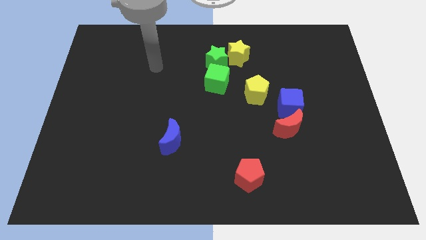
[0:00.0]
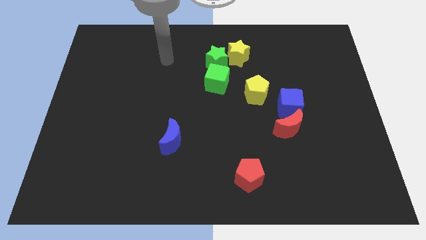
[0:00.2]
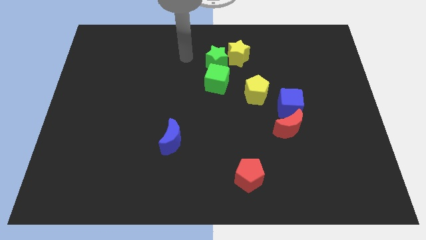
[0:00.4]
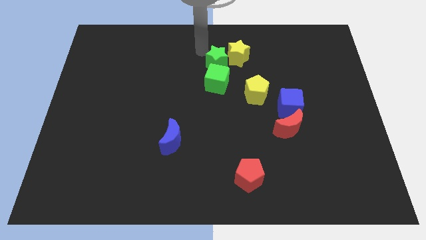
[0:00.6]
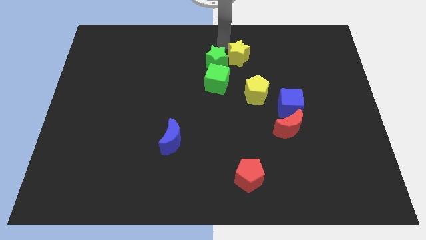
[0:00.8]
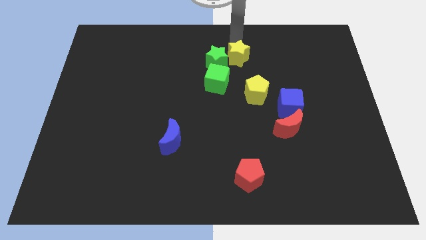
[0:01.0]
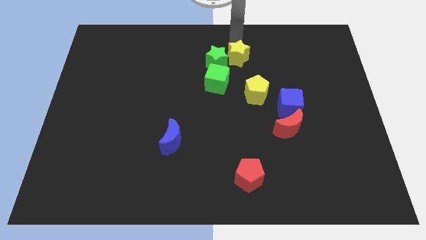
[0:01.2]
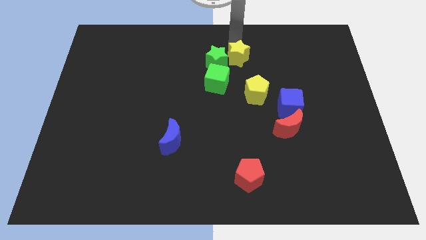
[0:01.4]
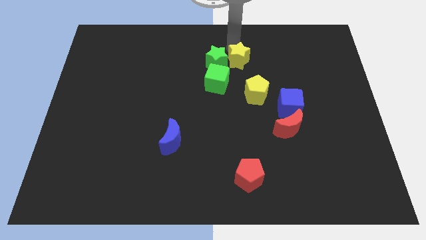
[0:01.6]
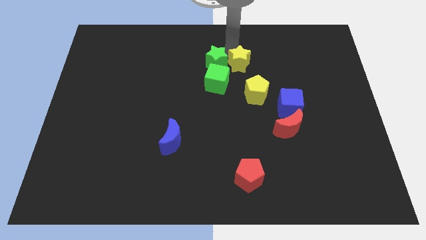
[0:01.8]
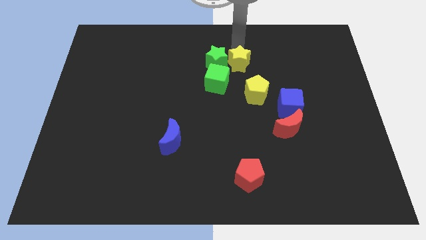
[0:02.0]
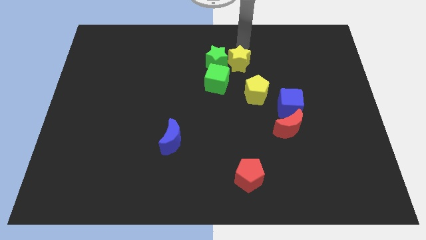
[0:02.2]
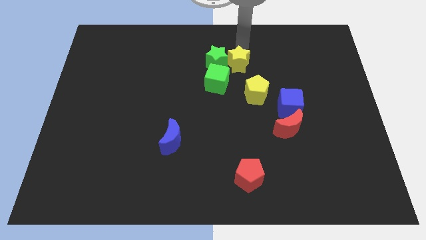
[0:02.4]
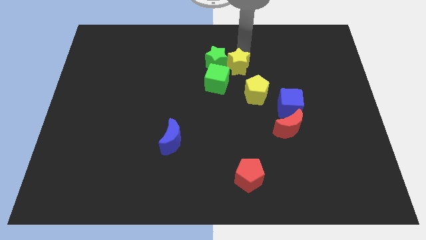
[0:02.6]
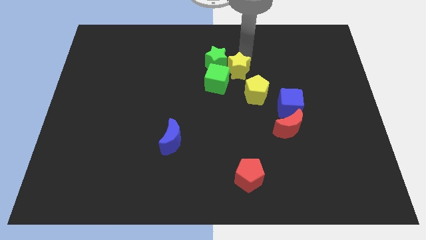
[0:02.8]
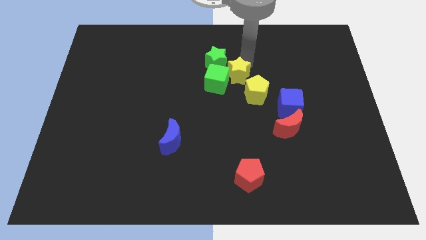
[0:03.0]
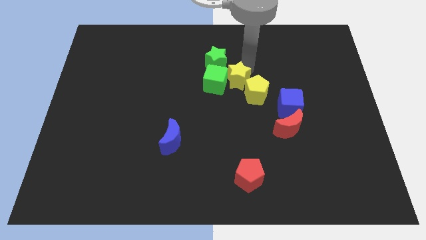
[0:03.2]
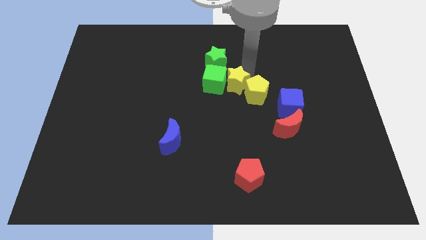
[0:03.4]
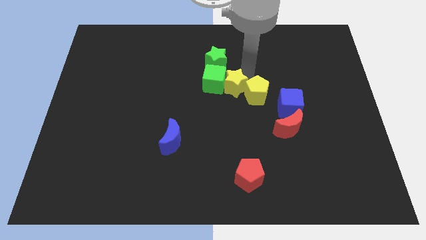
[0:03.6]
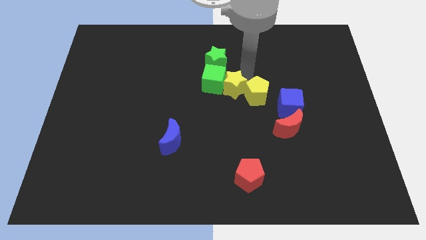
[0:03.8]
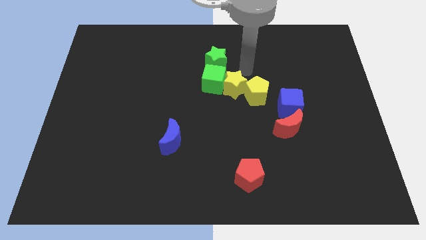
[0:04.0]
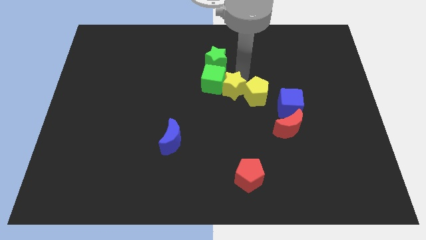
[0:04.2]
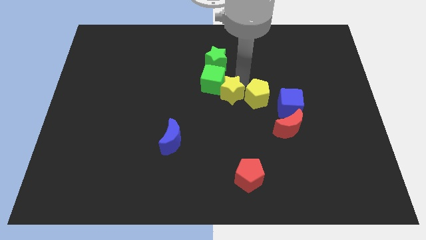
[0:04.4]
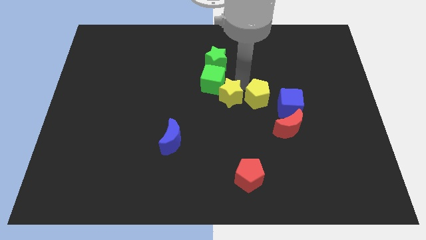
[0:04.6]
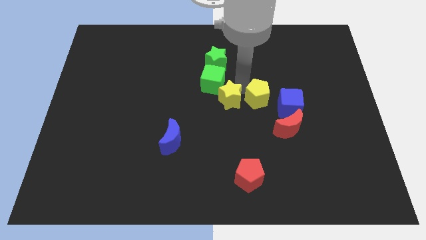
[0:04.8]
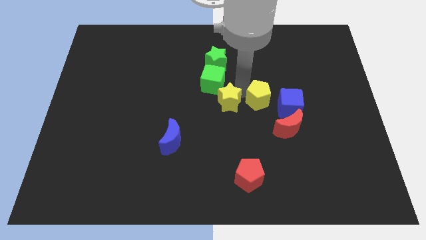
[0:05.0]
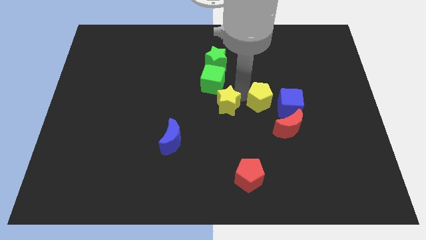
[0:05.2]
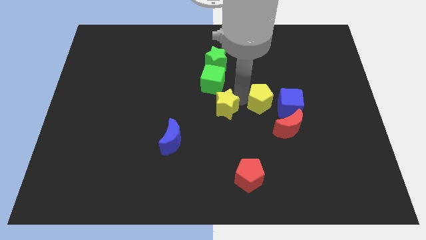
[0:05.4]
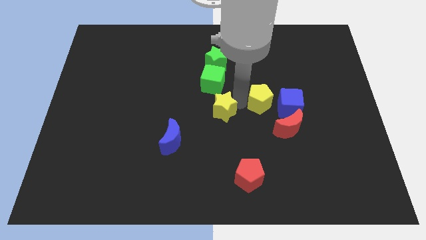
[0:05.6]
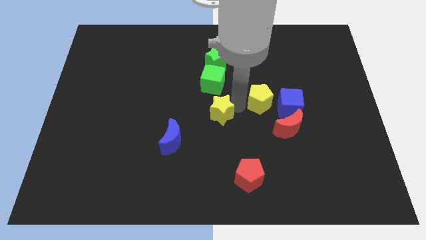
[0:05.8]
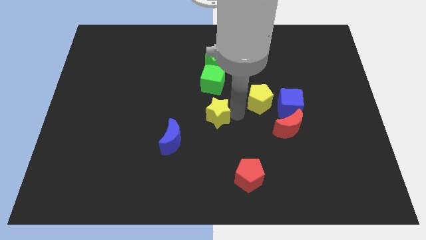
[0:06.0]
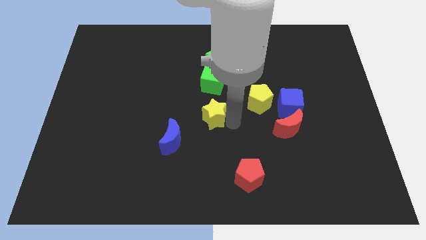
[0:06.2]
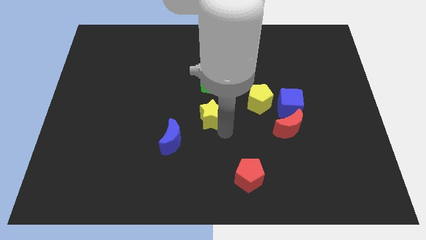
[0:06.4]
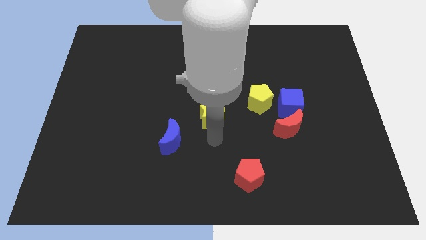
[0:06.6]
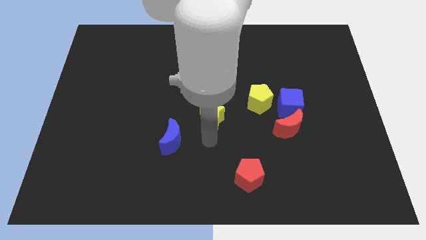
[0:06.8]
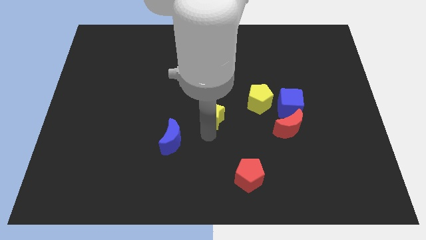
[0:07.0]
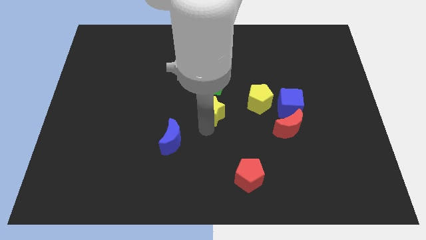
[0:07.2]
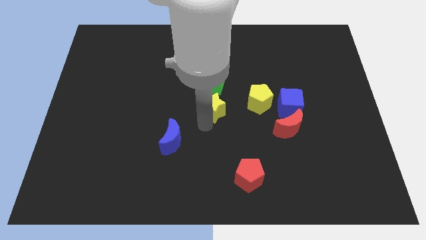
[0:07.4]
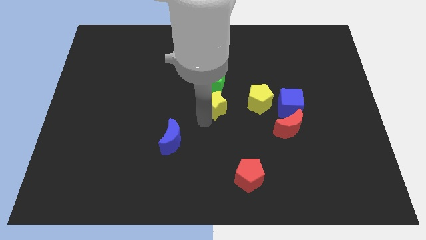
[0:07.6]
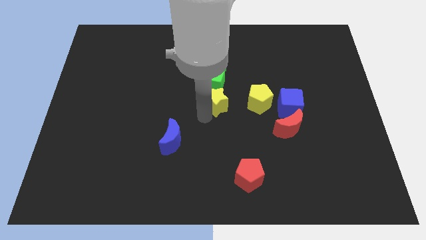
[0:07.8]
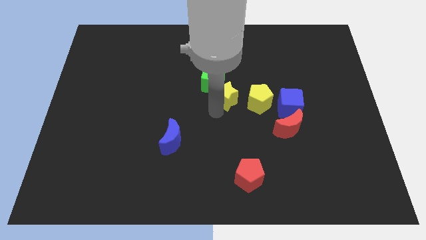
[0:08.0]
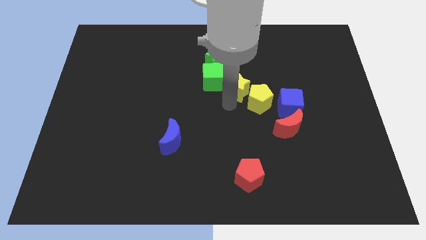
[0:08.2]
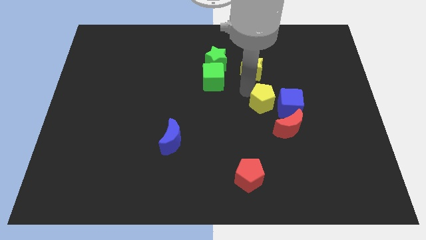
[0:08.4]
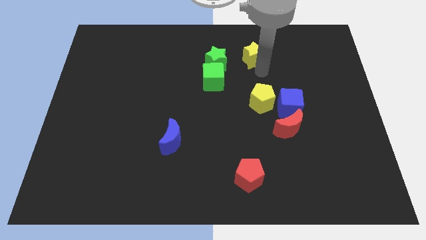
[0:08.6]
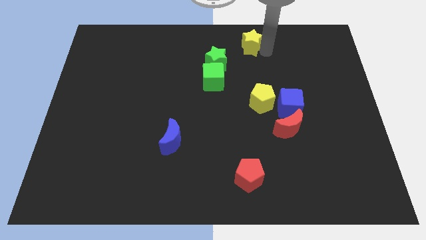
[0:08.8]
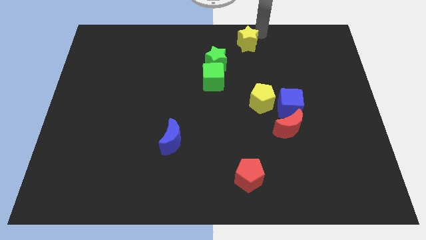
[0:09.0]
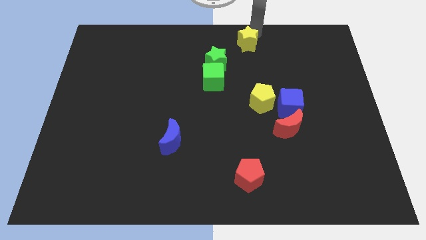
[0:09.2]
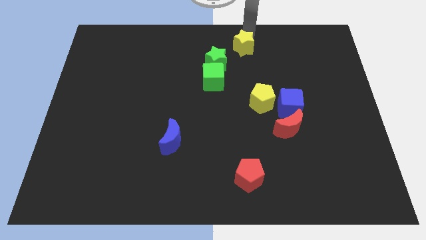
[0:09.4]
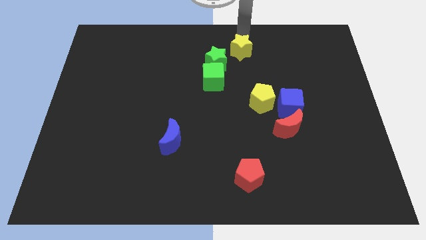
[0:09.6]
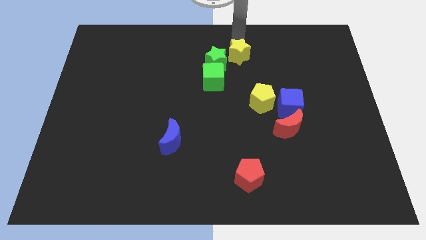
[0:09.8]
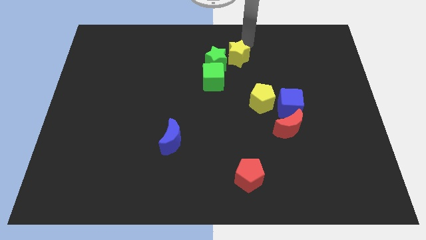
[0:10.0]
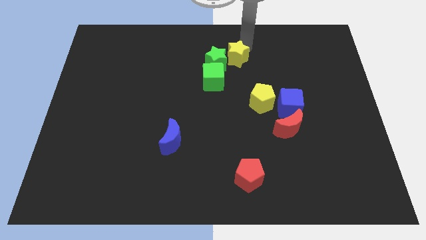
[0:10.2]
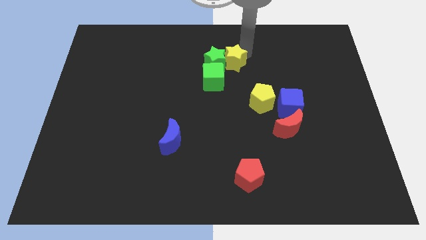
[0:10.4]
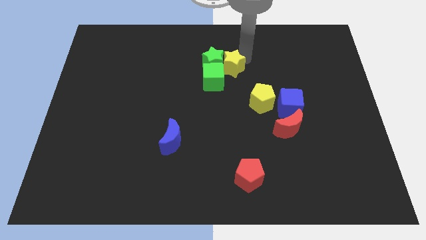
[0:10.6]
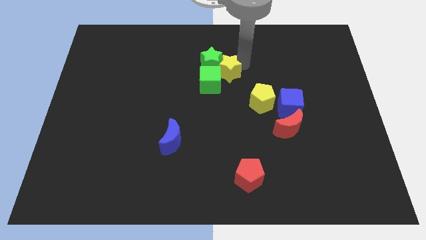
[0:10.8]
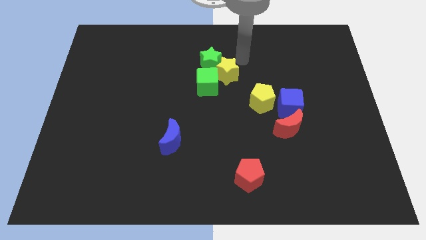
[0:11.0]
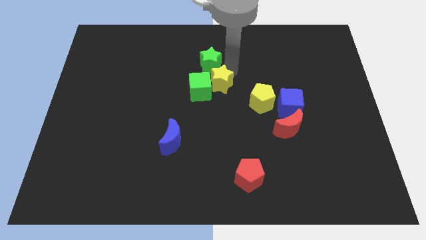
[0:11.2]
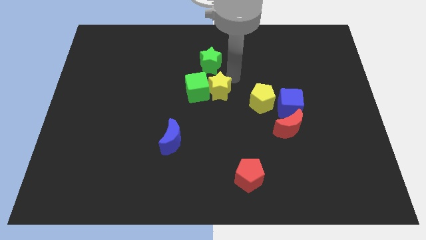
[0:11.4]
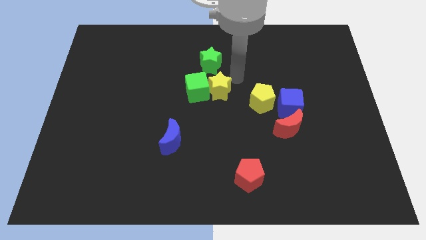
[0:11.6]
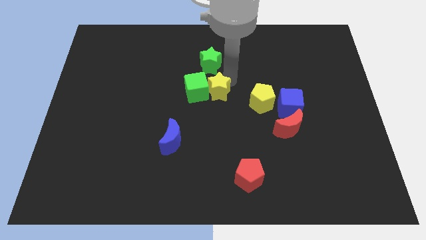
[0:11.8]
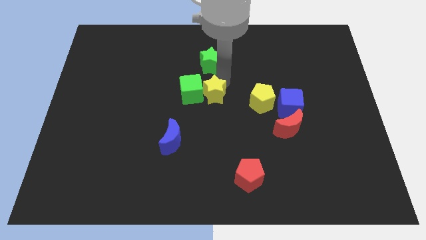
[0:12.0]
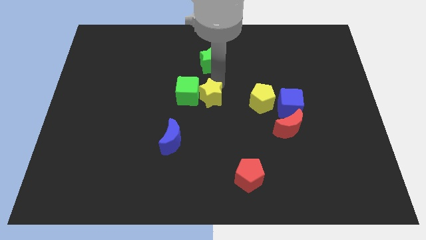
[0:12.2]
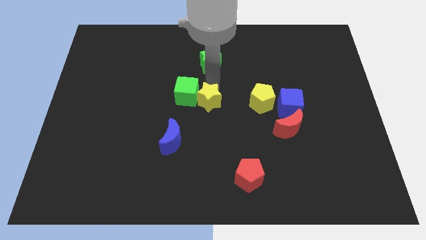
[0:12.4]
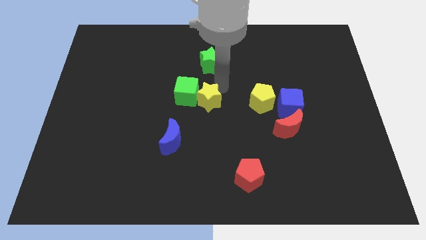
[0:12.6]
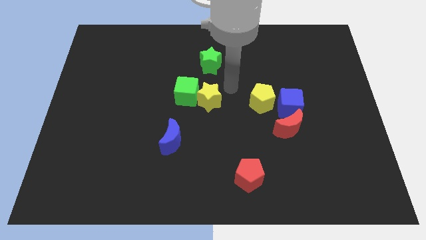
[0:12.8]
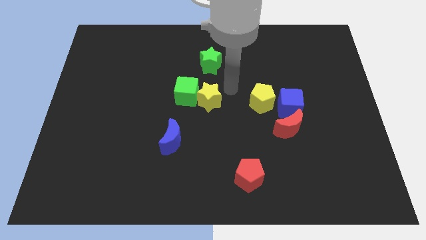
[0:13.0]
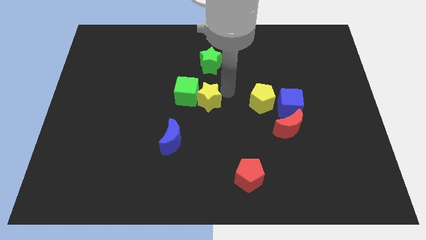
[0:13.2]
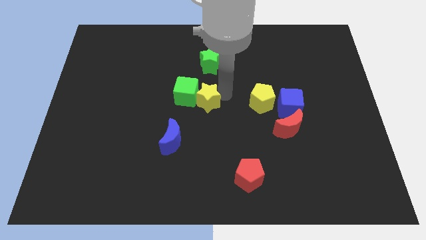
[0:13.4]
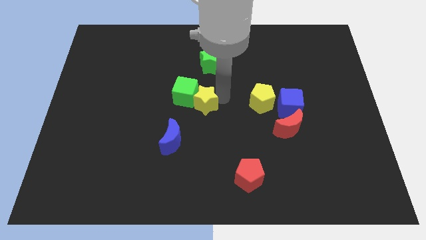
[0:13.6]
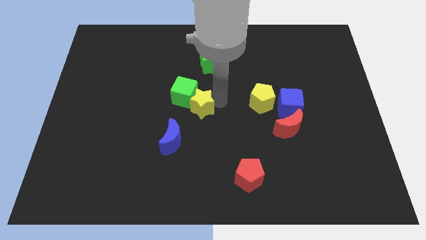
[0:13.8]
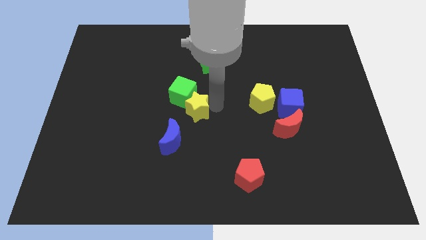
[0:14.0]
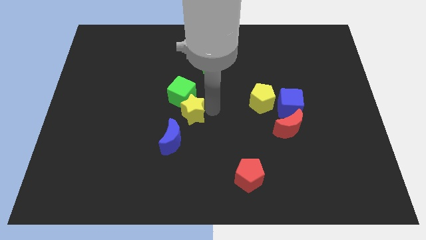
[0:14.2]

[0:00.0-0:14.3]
push the yellow star downwards and left

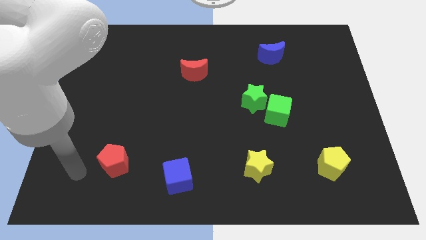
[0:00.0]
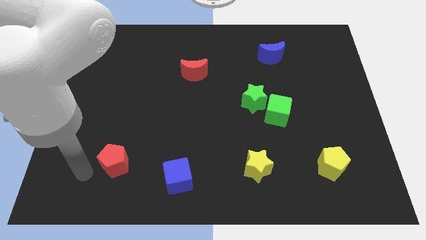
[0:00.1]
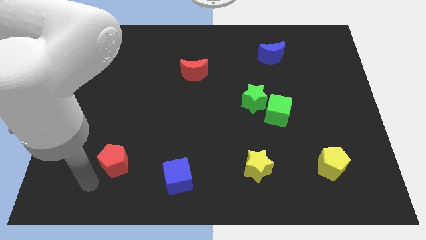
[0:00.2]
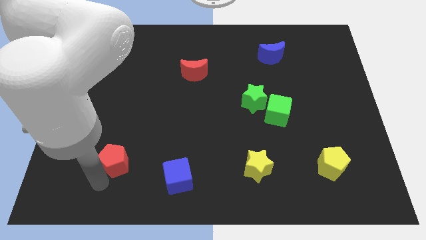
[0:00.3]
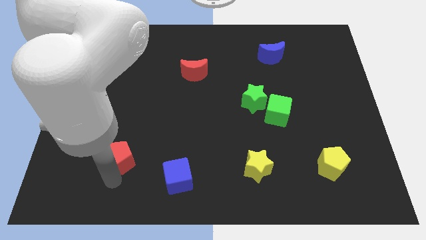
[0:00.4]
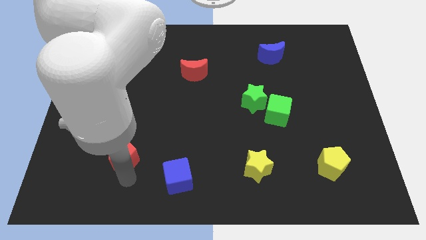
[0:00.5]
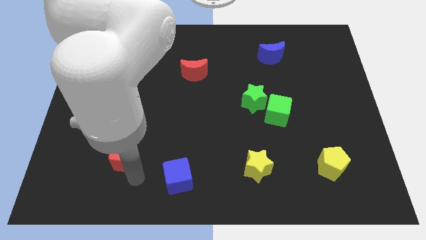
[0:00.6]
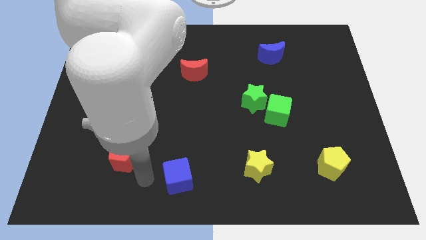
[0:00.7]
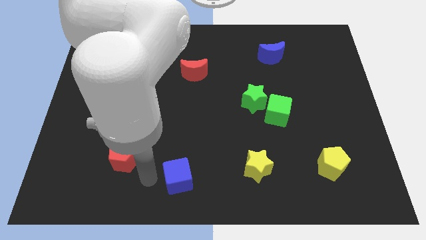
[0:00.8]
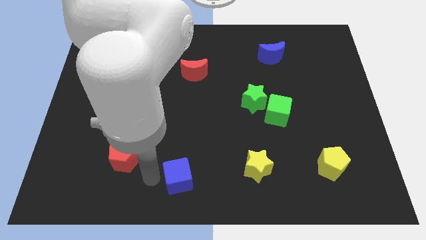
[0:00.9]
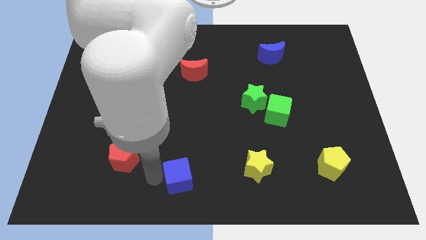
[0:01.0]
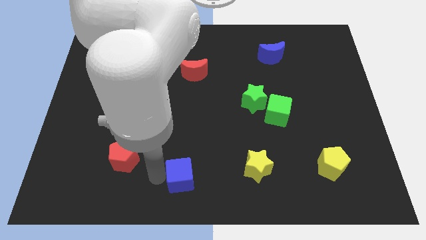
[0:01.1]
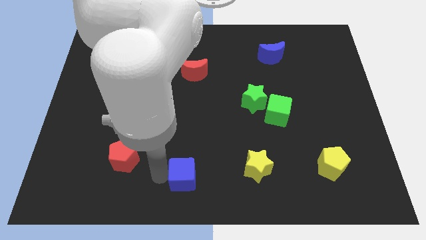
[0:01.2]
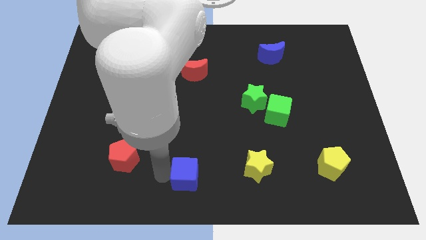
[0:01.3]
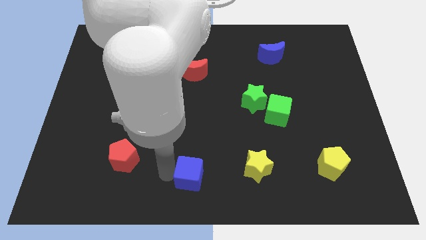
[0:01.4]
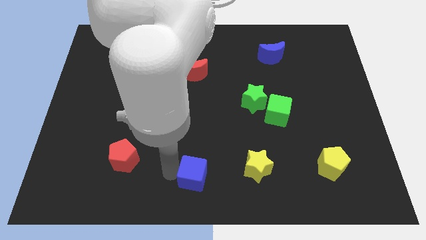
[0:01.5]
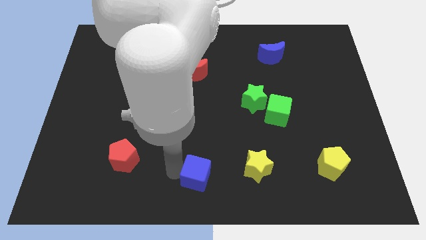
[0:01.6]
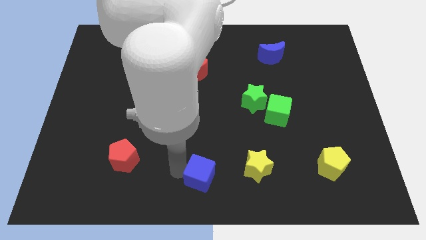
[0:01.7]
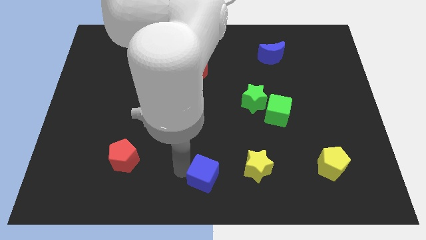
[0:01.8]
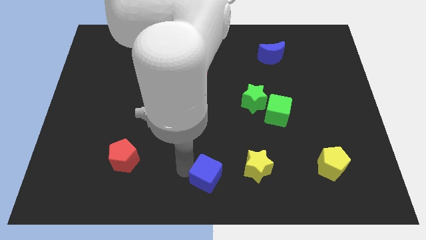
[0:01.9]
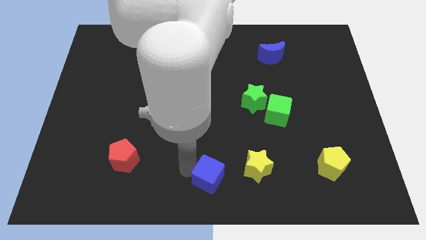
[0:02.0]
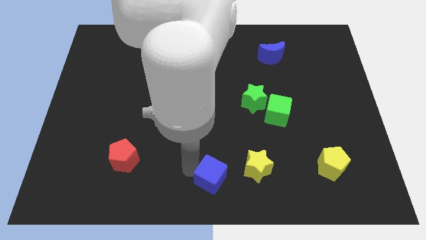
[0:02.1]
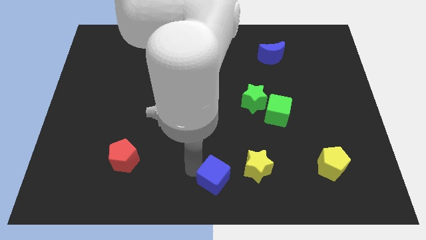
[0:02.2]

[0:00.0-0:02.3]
slightly move the blue cube right
